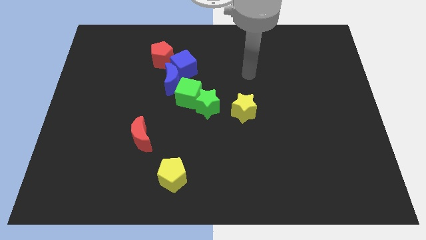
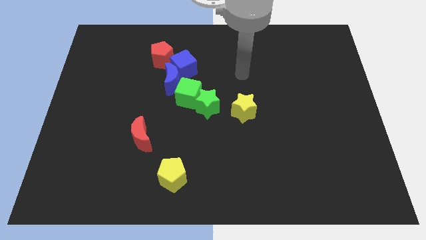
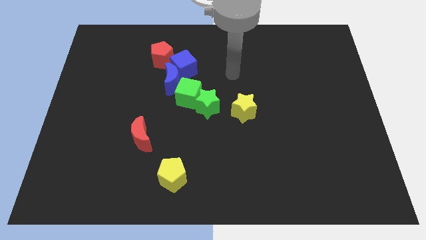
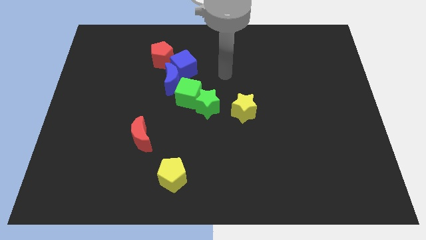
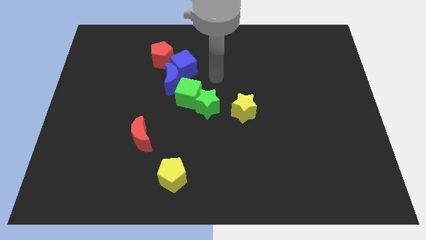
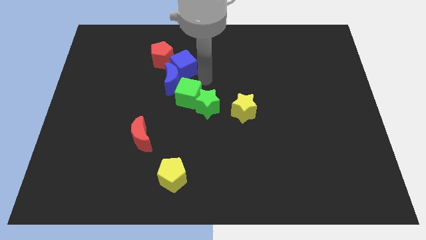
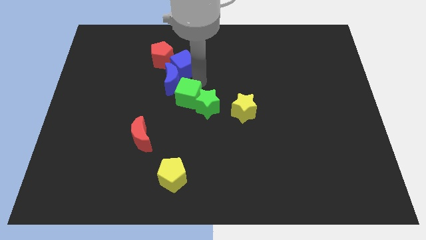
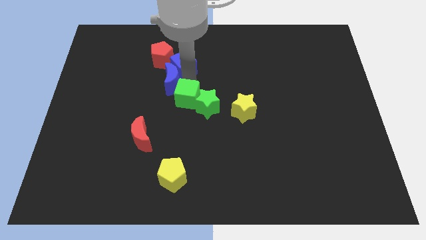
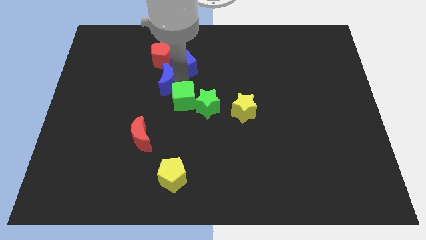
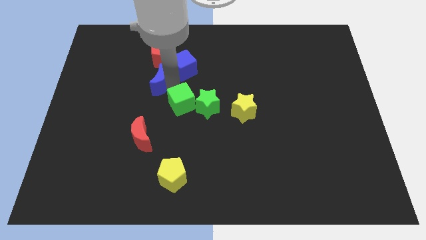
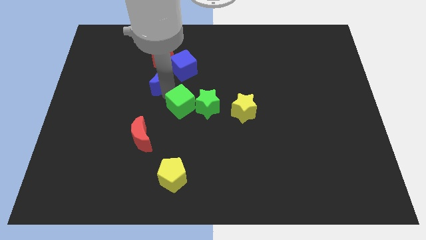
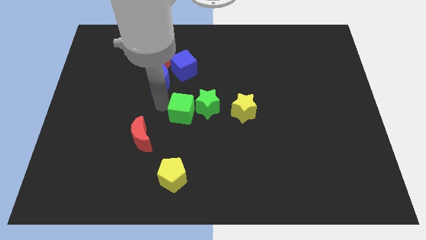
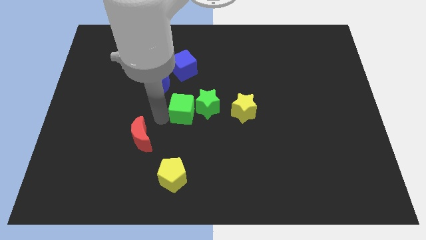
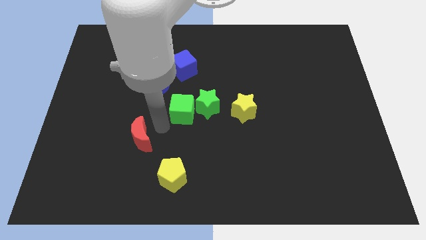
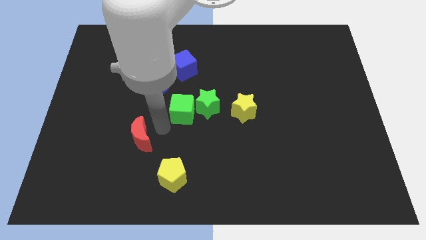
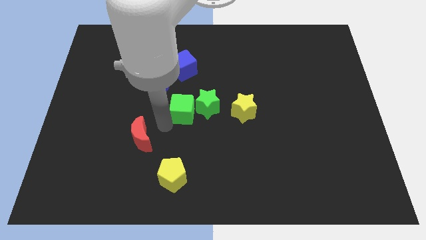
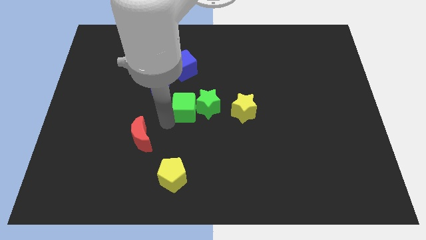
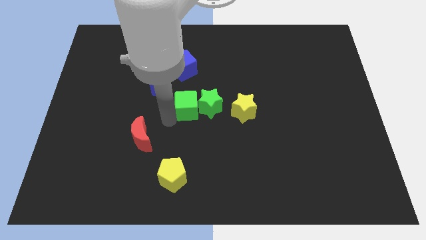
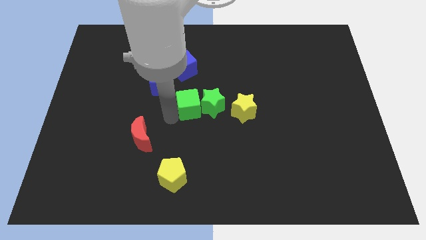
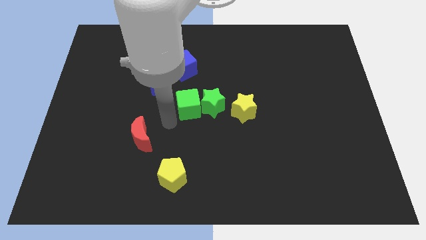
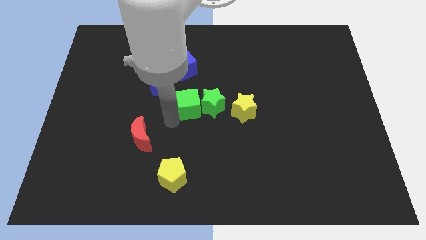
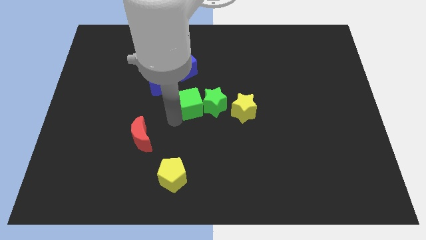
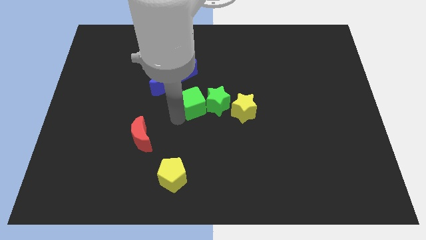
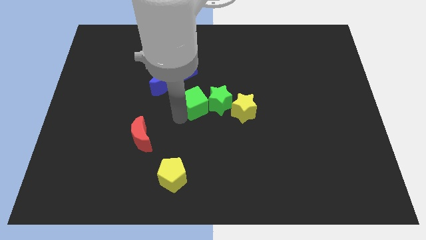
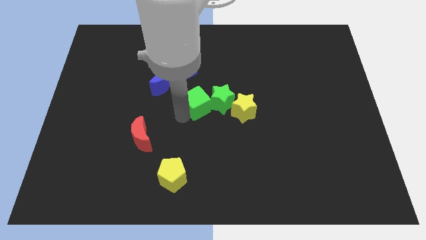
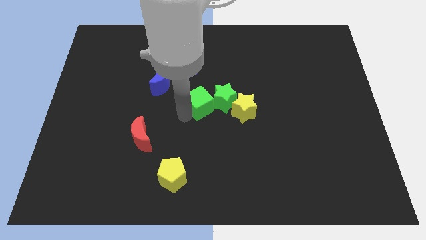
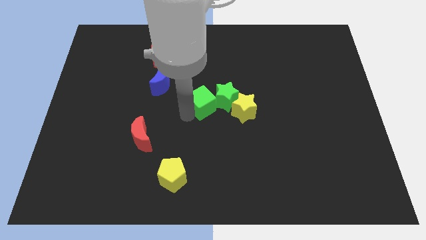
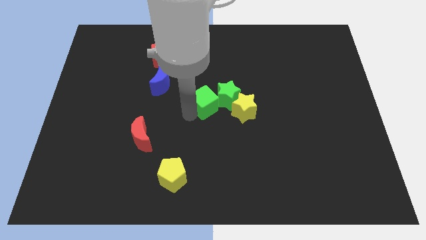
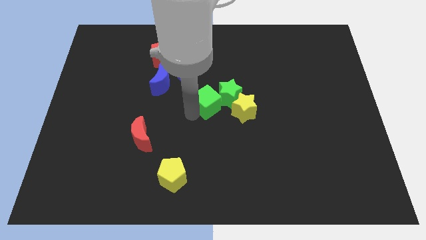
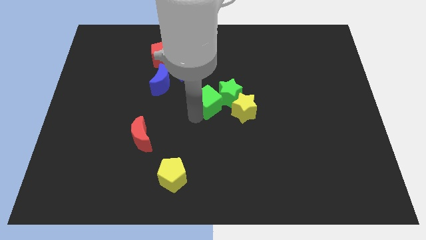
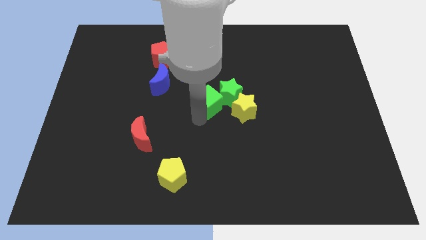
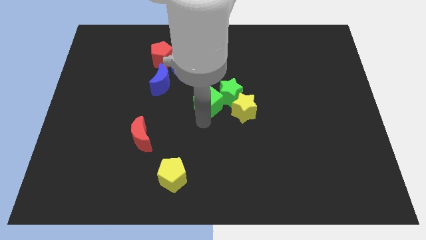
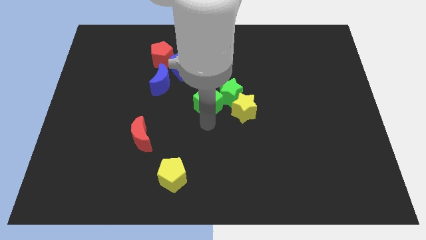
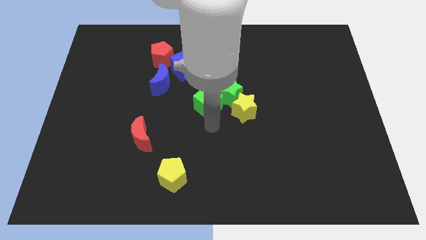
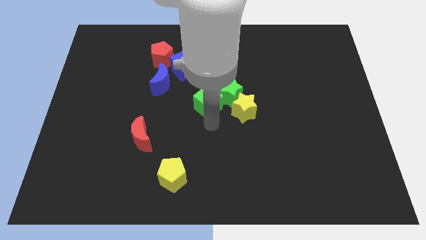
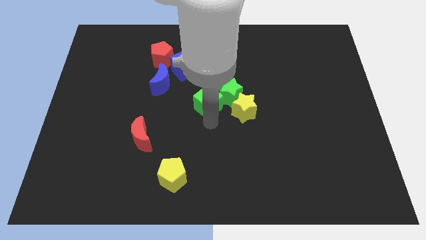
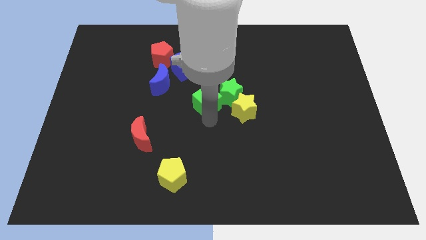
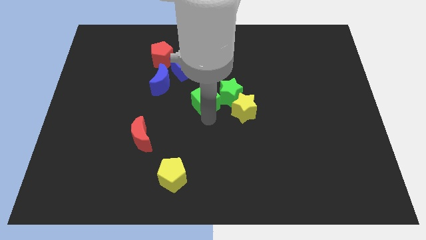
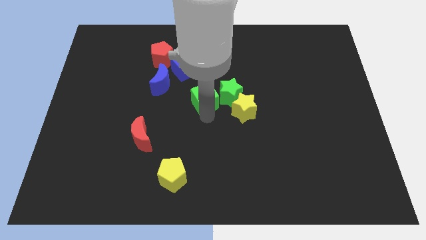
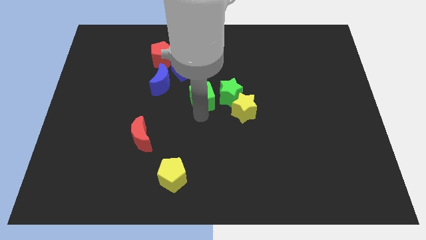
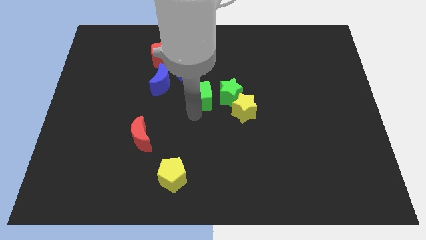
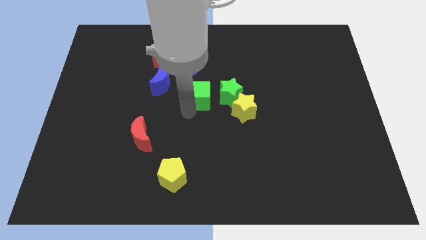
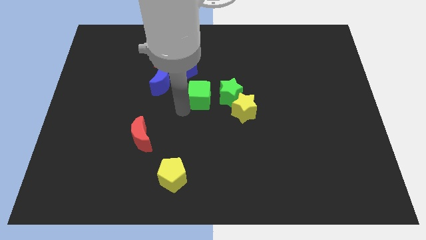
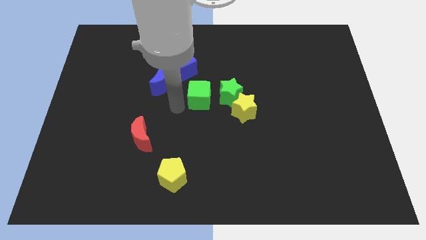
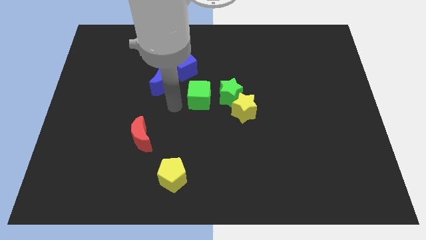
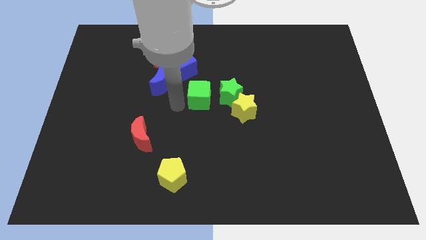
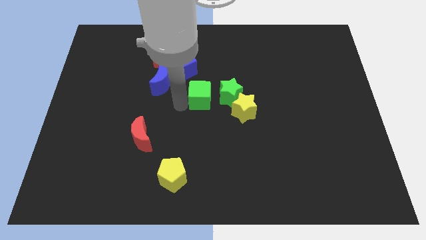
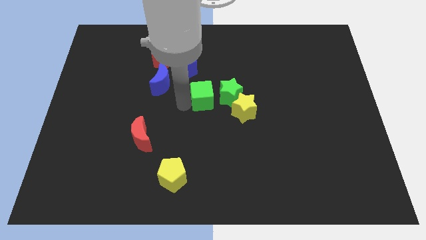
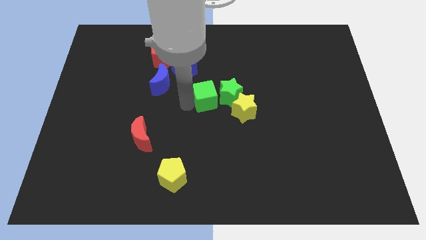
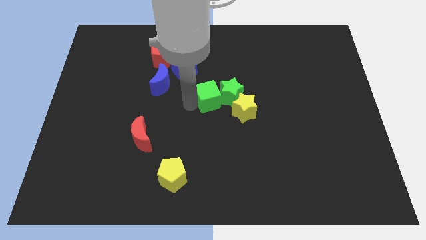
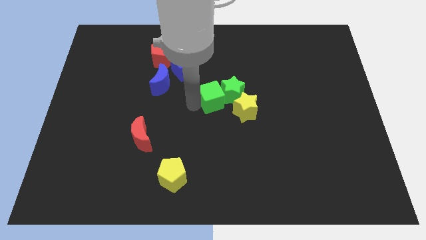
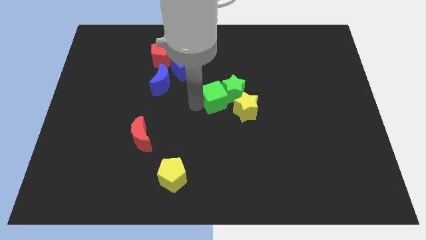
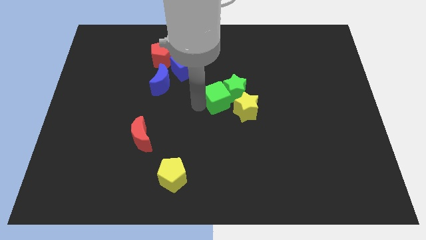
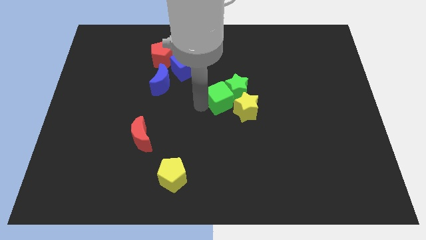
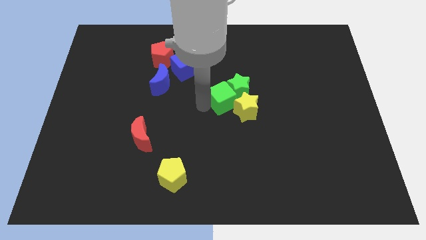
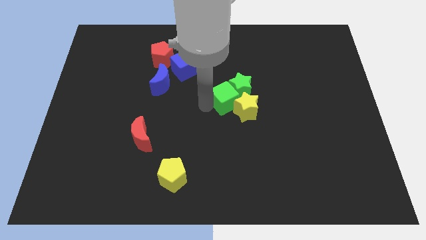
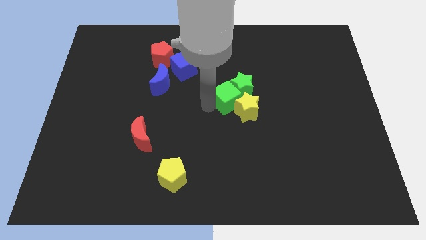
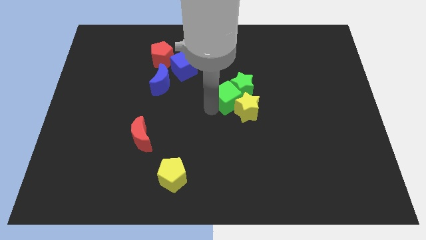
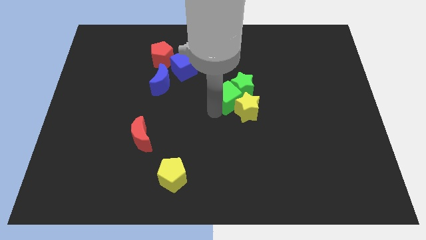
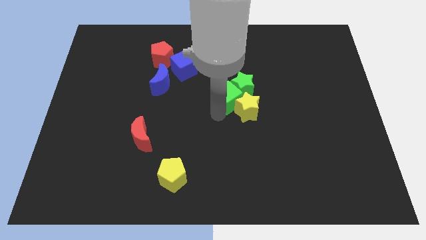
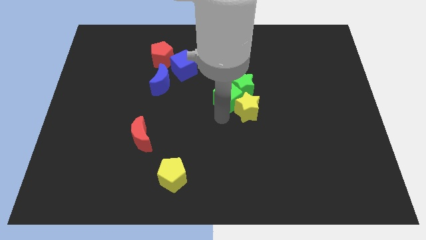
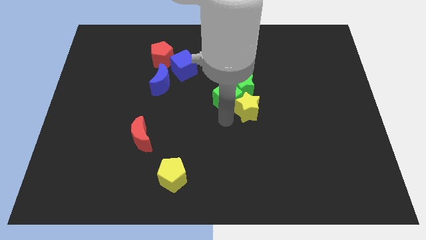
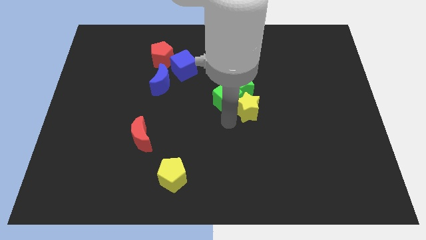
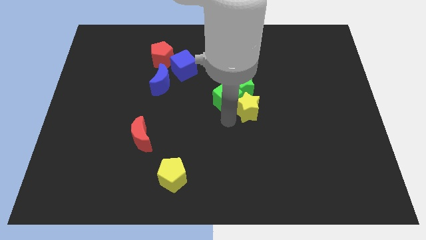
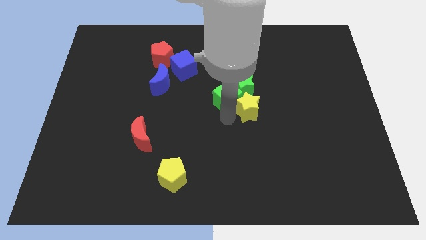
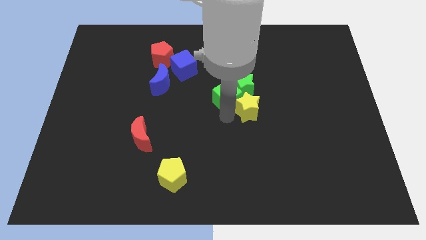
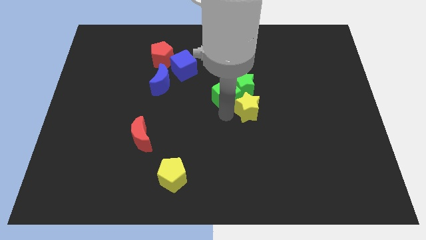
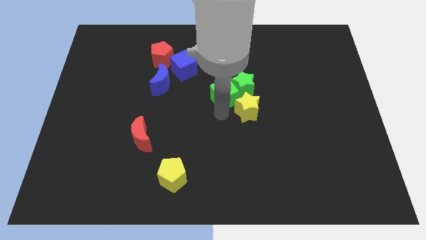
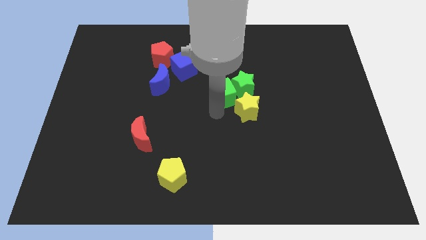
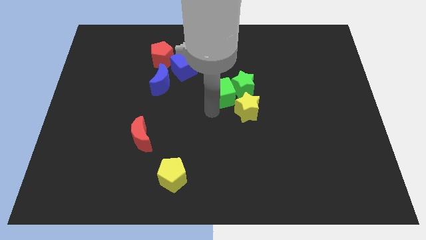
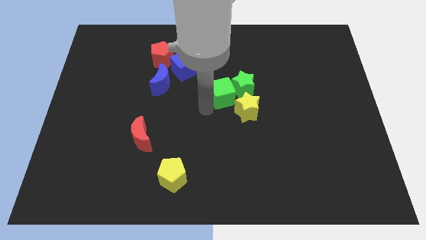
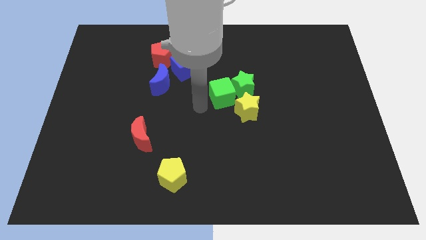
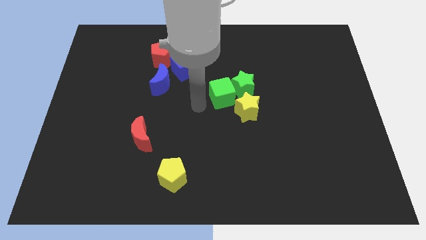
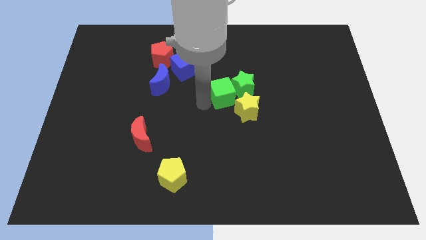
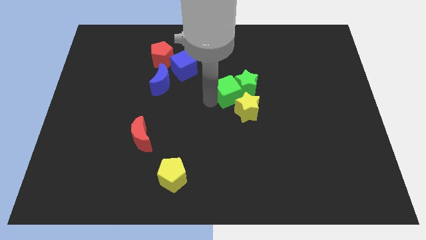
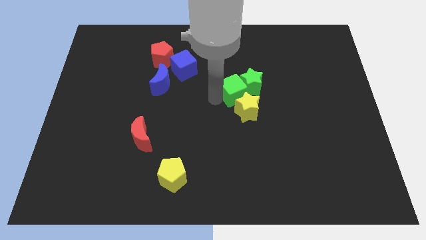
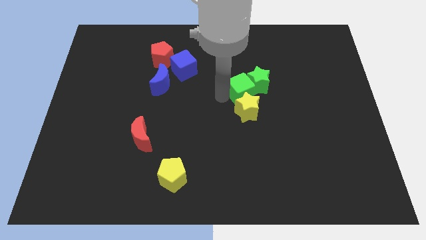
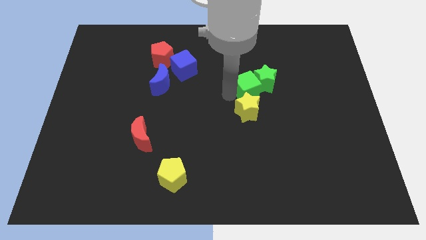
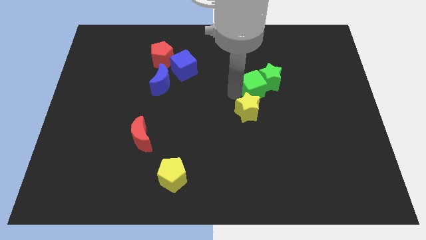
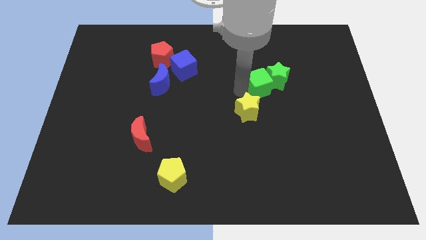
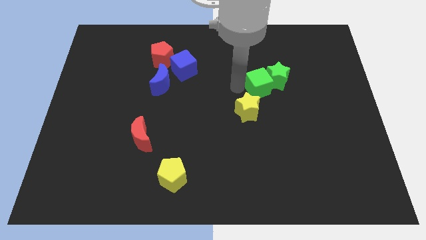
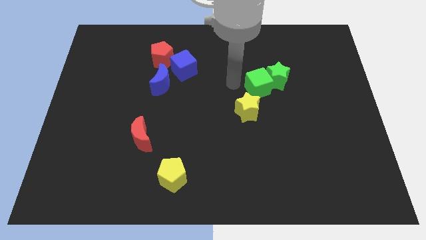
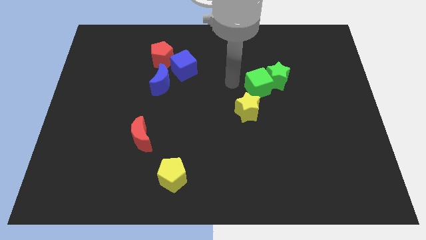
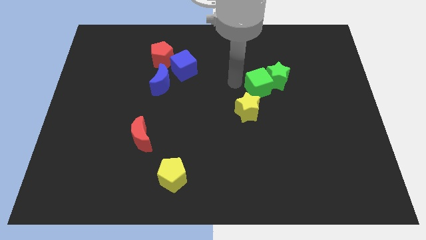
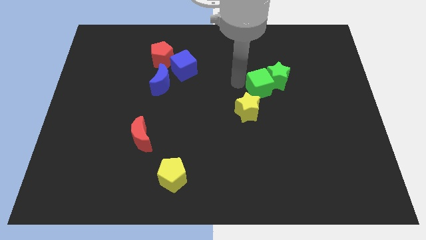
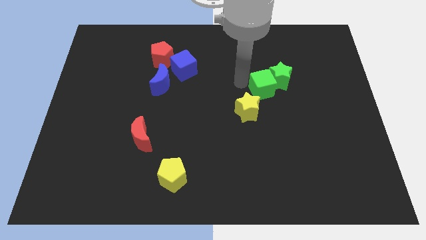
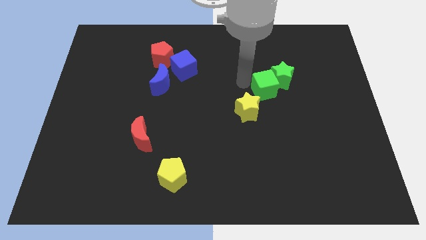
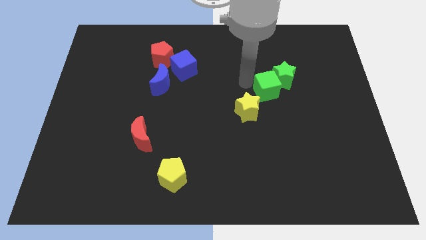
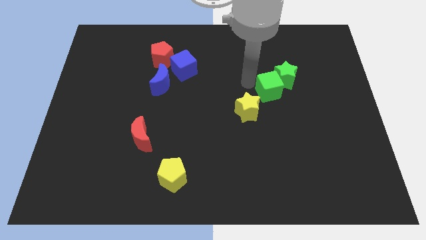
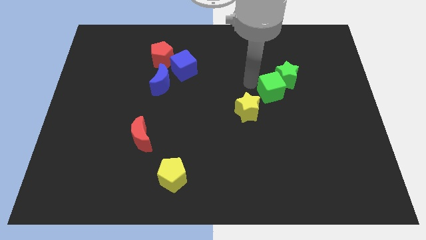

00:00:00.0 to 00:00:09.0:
slide the green cube right
